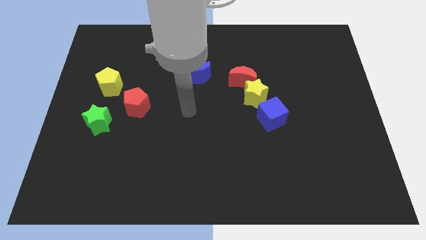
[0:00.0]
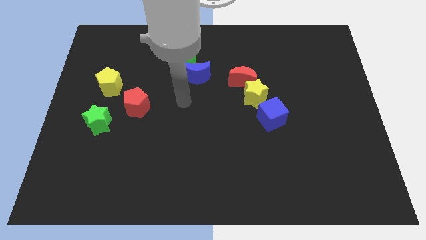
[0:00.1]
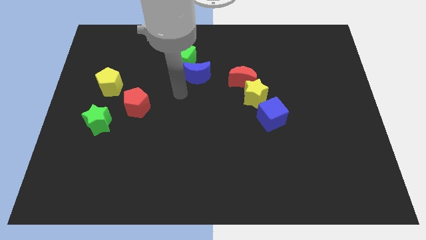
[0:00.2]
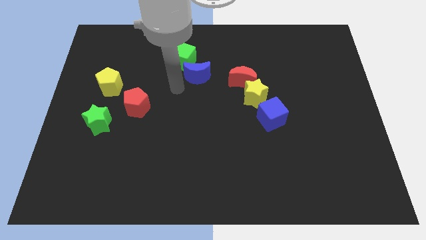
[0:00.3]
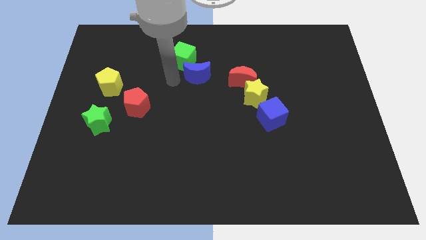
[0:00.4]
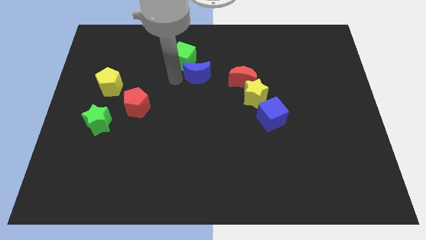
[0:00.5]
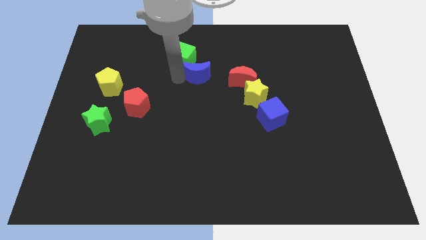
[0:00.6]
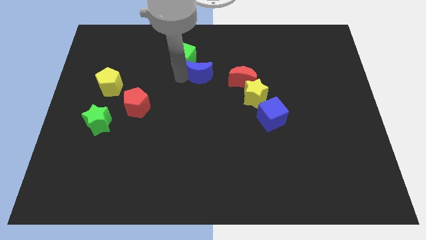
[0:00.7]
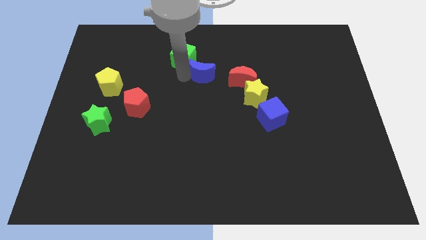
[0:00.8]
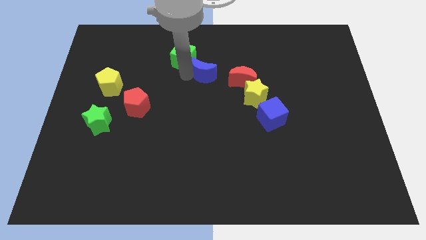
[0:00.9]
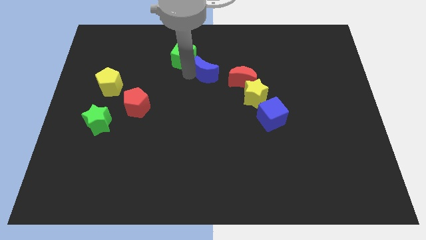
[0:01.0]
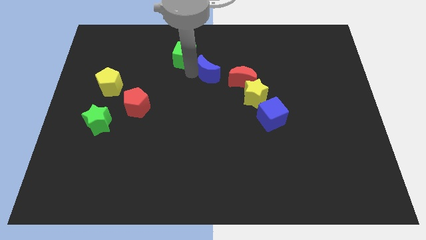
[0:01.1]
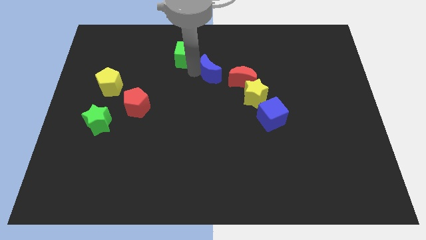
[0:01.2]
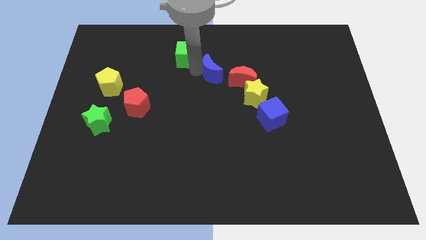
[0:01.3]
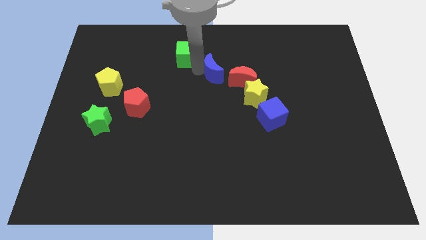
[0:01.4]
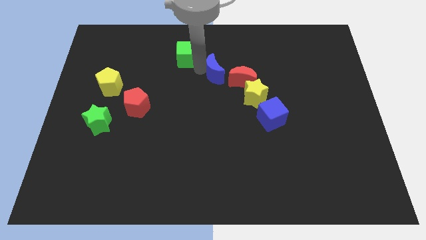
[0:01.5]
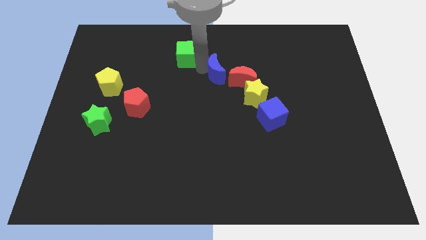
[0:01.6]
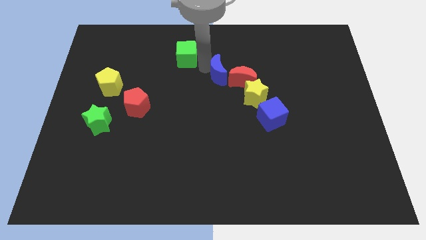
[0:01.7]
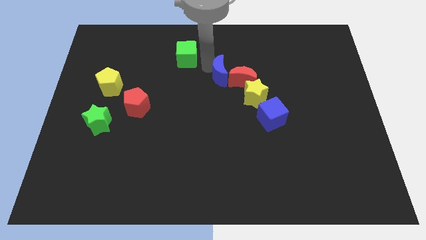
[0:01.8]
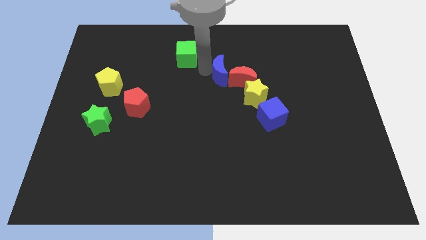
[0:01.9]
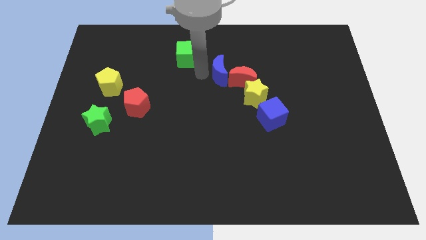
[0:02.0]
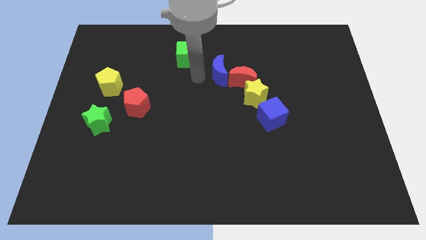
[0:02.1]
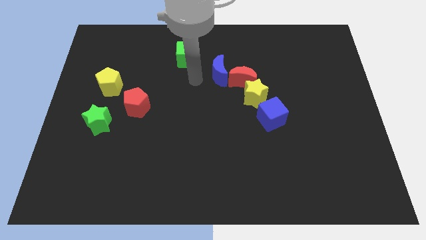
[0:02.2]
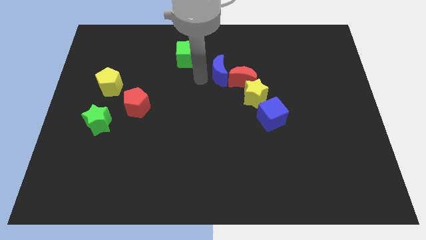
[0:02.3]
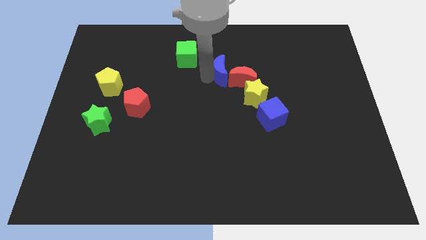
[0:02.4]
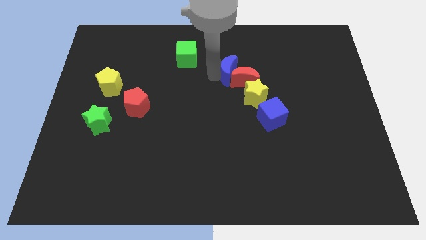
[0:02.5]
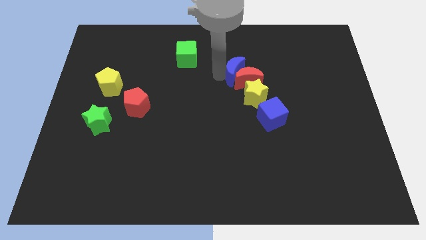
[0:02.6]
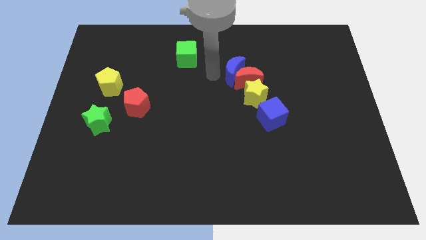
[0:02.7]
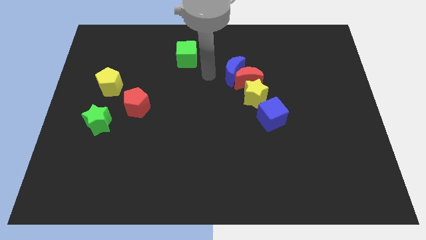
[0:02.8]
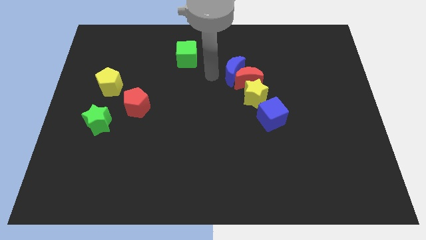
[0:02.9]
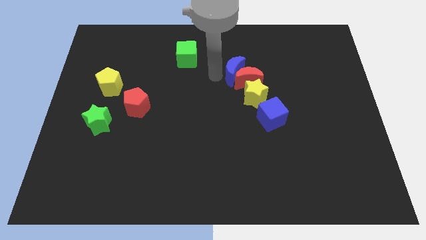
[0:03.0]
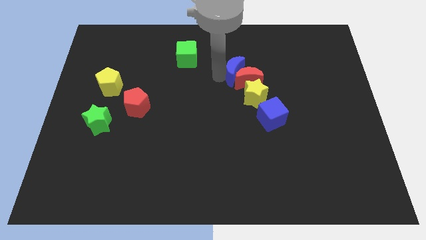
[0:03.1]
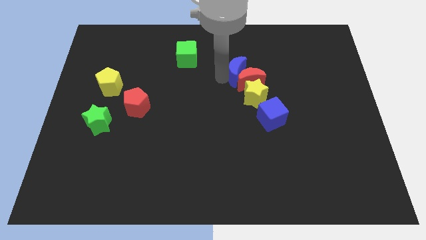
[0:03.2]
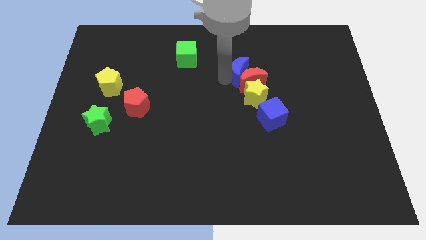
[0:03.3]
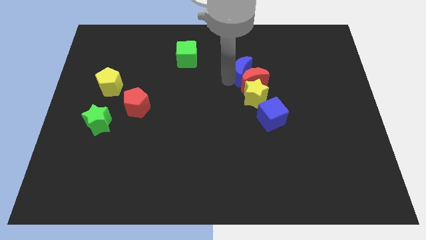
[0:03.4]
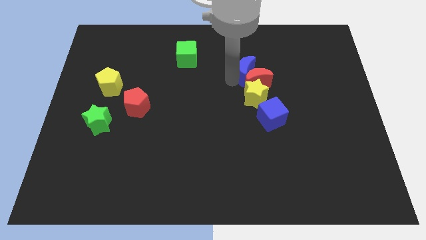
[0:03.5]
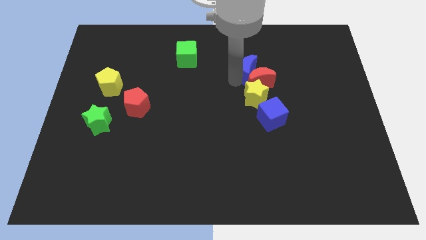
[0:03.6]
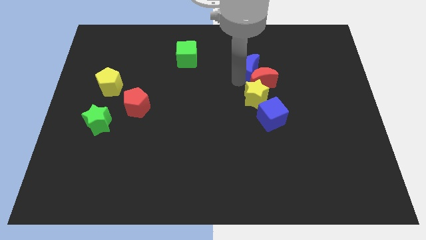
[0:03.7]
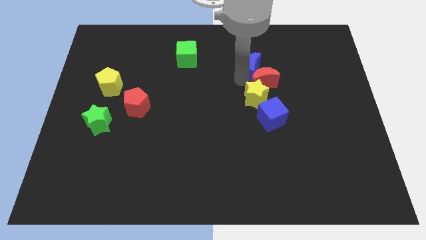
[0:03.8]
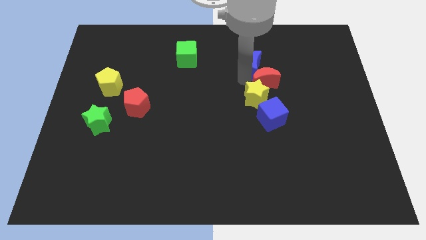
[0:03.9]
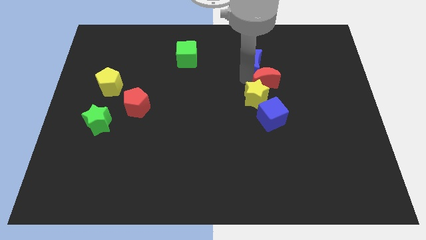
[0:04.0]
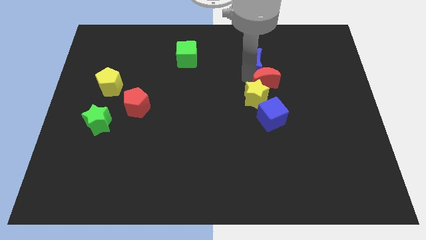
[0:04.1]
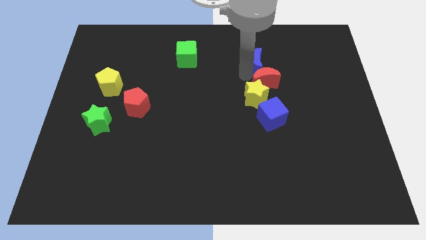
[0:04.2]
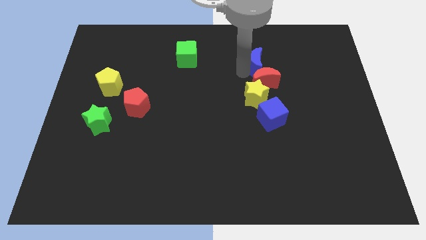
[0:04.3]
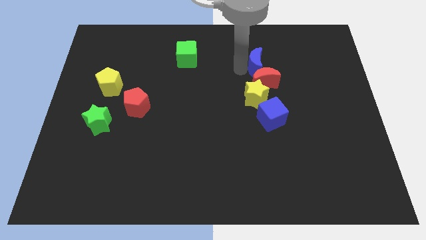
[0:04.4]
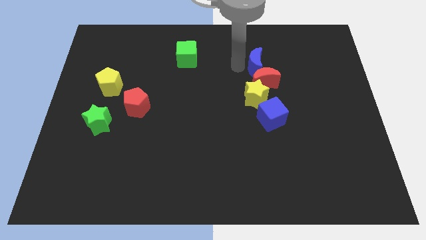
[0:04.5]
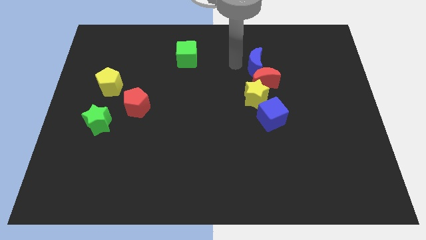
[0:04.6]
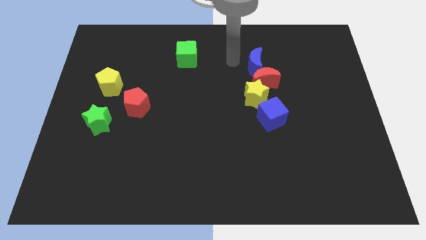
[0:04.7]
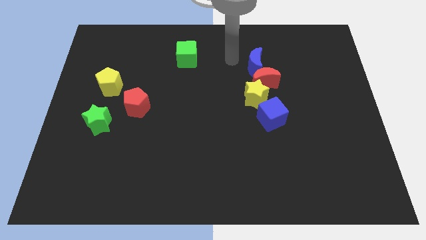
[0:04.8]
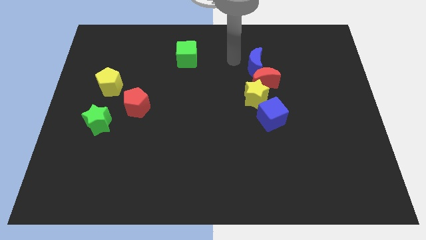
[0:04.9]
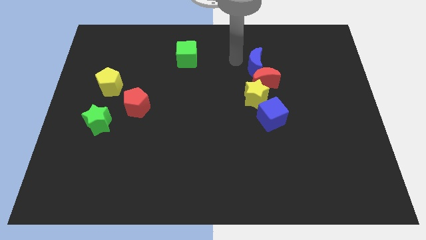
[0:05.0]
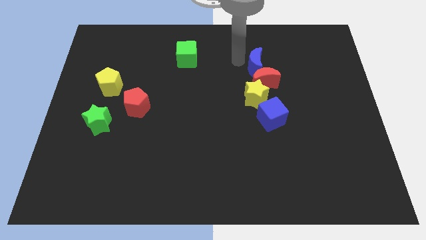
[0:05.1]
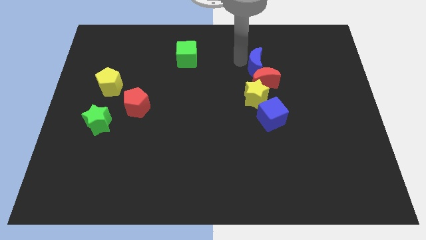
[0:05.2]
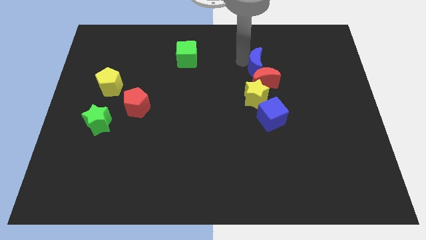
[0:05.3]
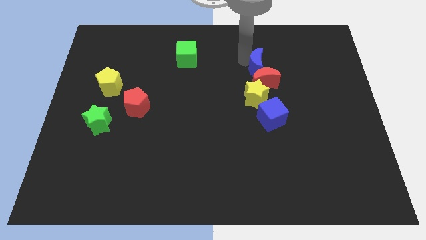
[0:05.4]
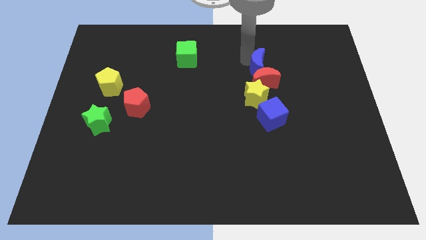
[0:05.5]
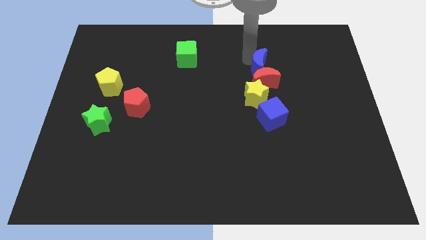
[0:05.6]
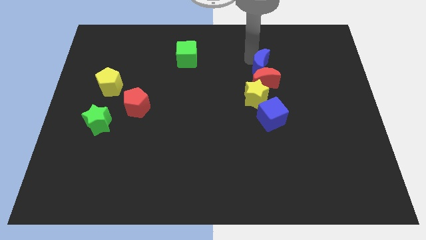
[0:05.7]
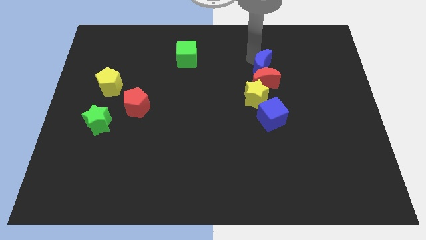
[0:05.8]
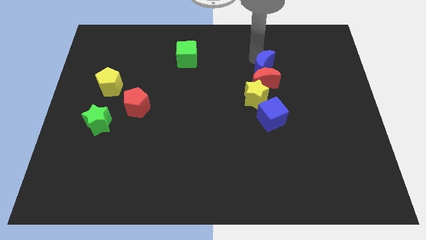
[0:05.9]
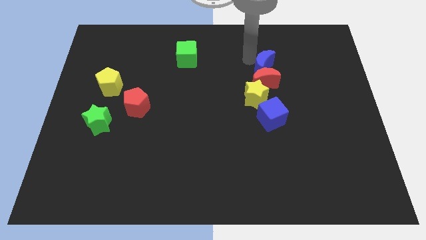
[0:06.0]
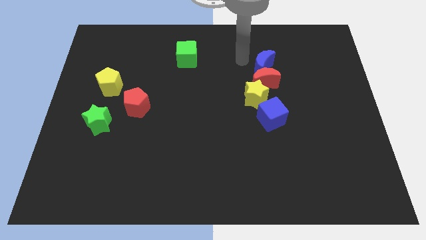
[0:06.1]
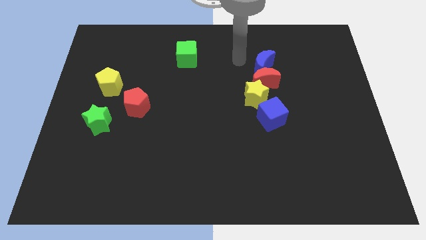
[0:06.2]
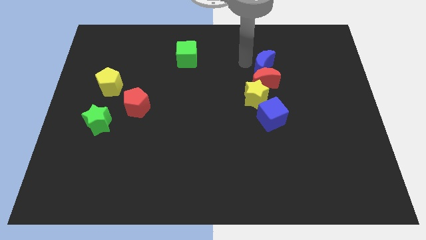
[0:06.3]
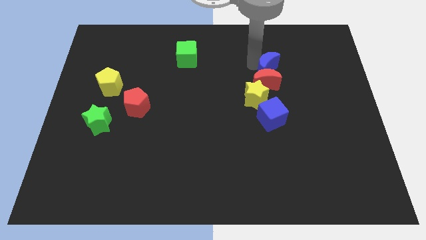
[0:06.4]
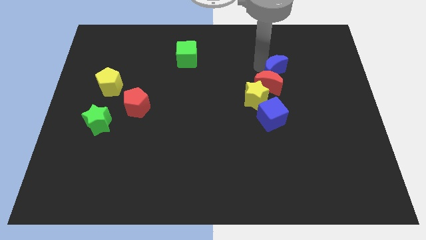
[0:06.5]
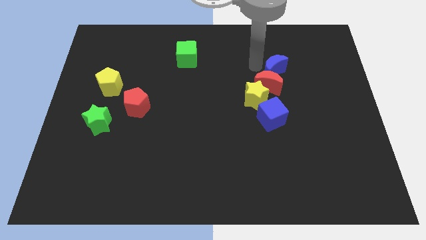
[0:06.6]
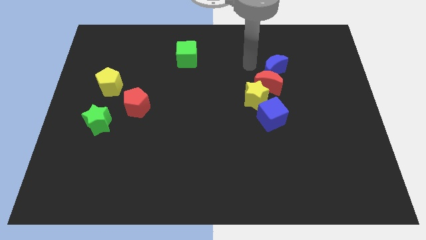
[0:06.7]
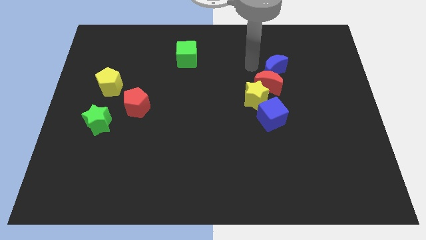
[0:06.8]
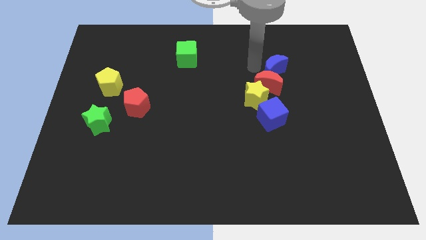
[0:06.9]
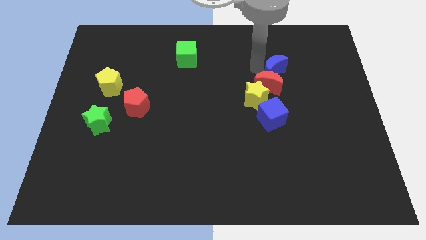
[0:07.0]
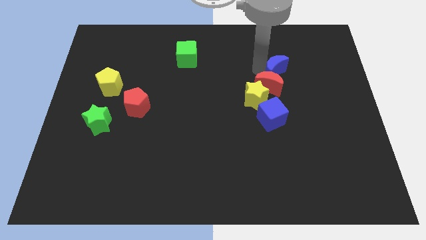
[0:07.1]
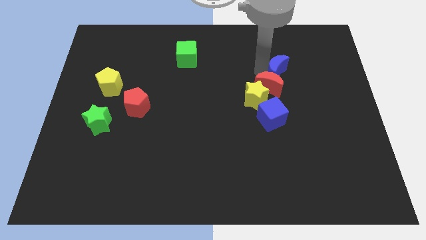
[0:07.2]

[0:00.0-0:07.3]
slide the blue moon right

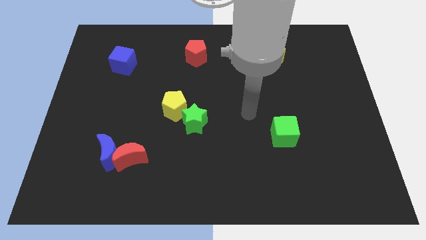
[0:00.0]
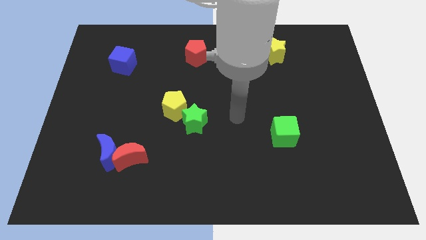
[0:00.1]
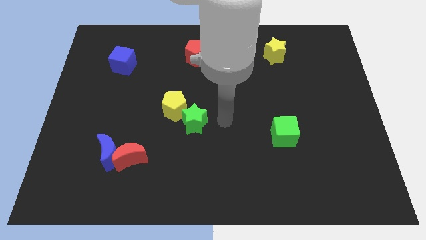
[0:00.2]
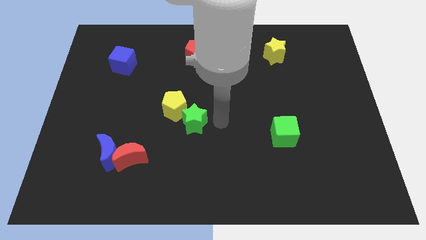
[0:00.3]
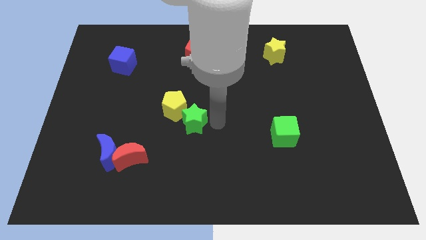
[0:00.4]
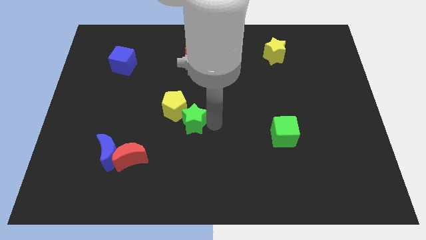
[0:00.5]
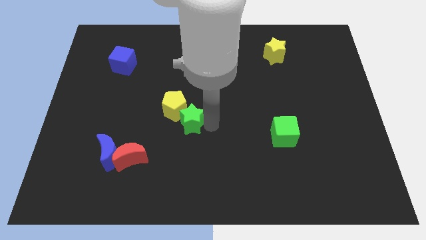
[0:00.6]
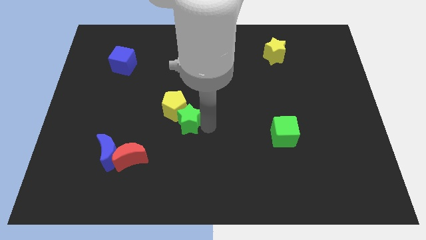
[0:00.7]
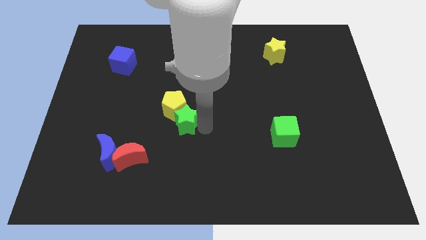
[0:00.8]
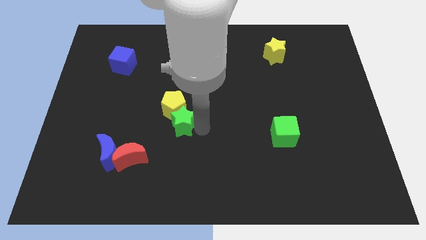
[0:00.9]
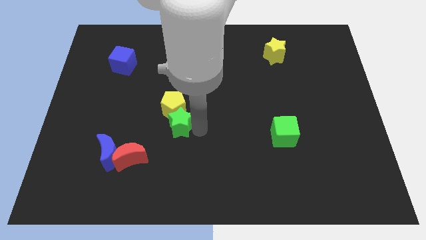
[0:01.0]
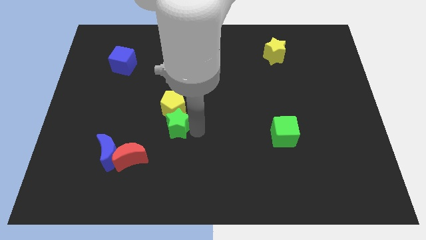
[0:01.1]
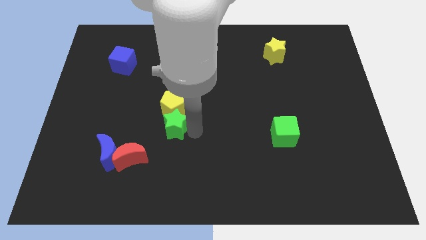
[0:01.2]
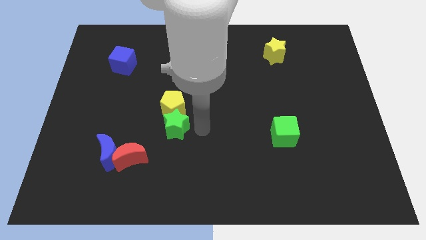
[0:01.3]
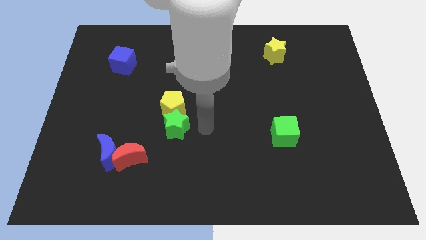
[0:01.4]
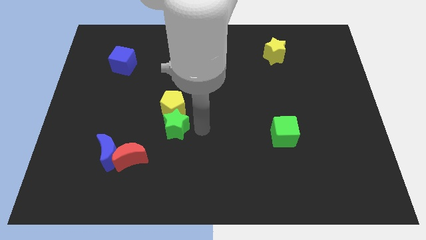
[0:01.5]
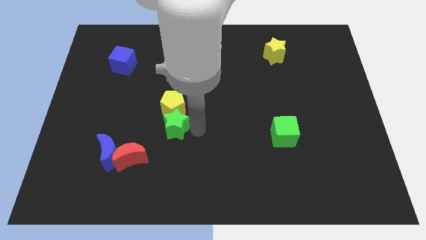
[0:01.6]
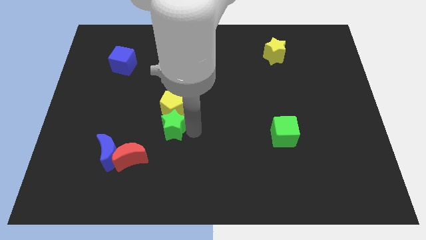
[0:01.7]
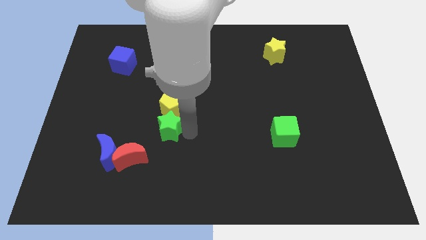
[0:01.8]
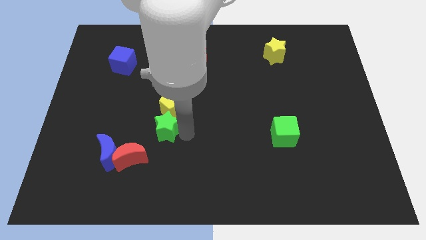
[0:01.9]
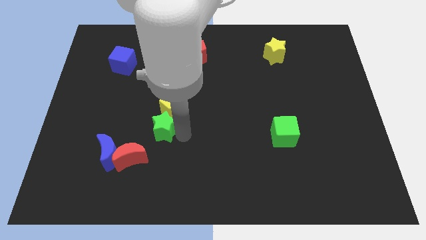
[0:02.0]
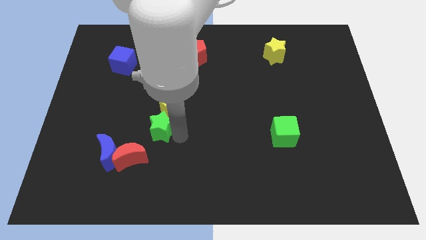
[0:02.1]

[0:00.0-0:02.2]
move the green star a bit left
